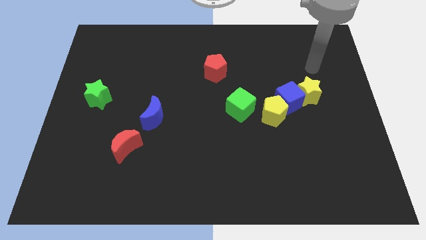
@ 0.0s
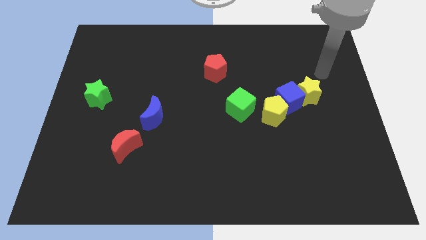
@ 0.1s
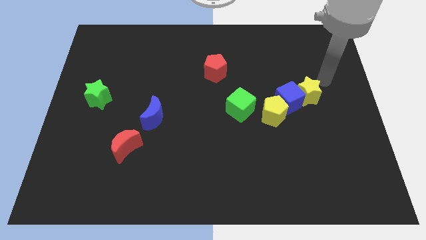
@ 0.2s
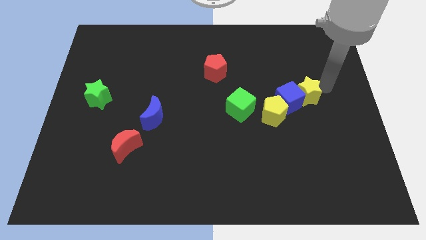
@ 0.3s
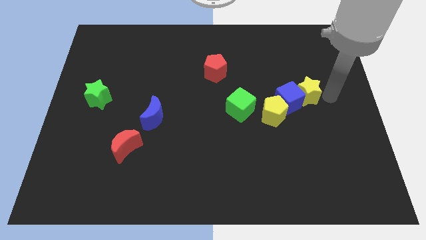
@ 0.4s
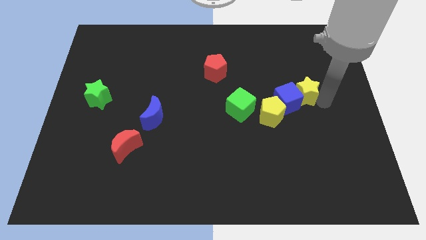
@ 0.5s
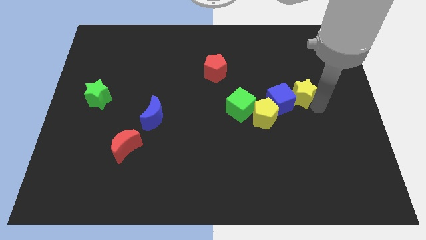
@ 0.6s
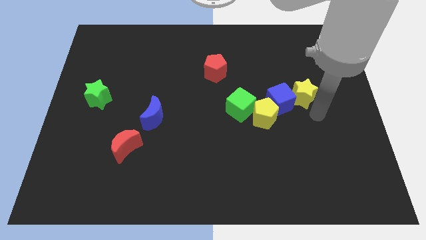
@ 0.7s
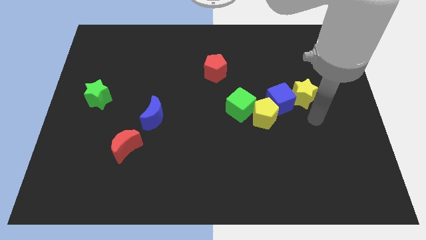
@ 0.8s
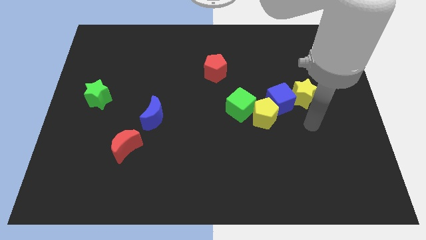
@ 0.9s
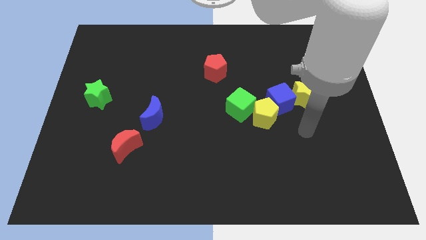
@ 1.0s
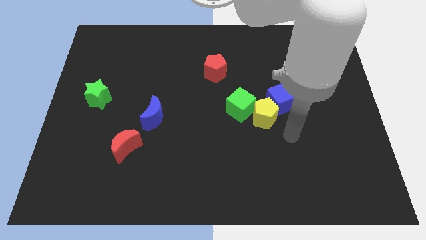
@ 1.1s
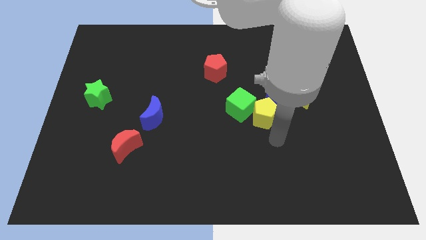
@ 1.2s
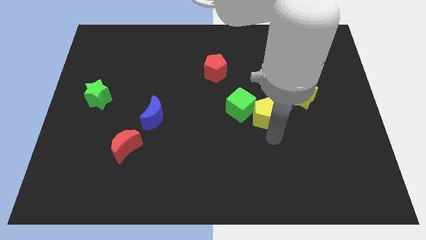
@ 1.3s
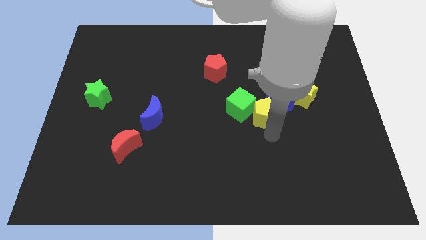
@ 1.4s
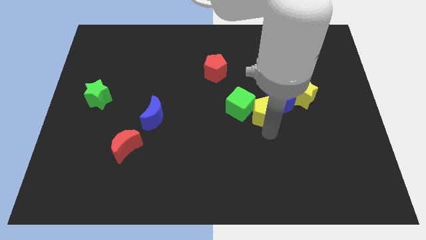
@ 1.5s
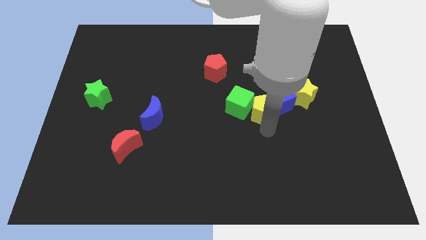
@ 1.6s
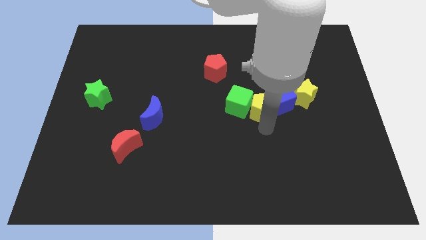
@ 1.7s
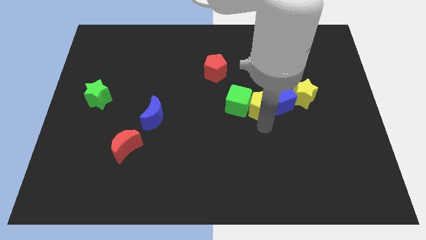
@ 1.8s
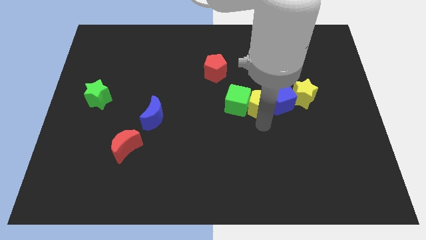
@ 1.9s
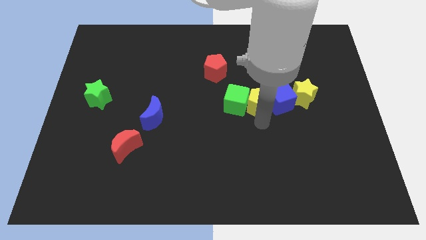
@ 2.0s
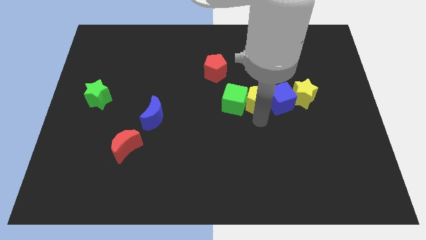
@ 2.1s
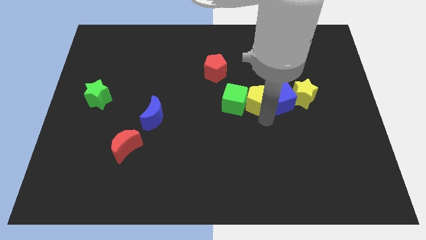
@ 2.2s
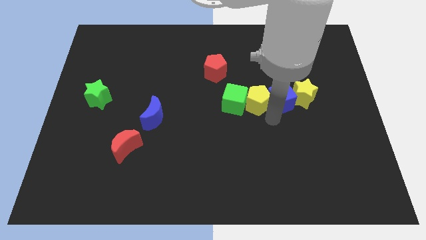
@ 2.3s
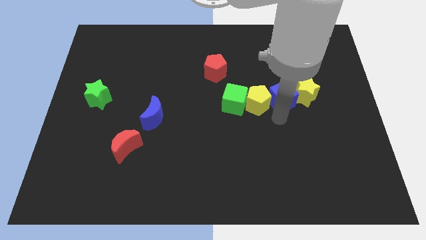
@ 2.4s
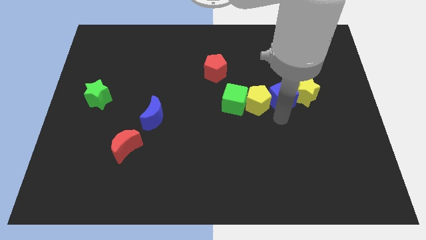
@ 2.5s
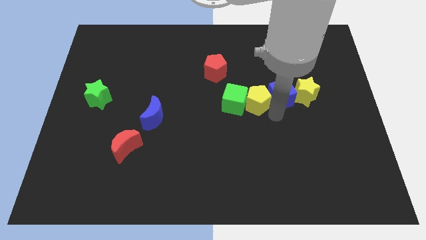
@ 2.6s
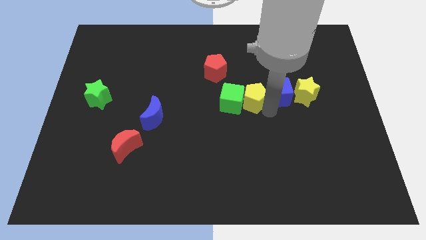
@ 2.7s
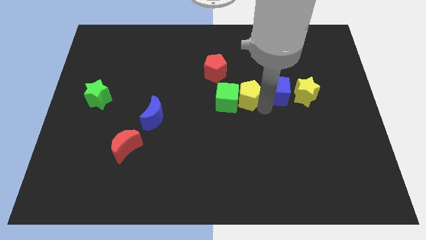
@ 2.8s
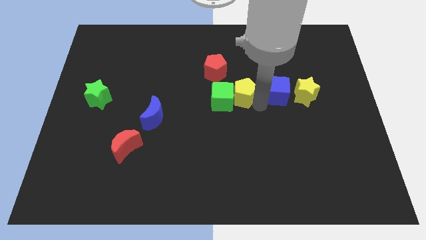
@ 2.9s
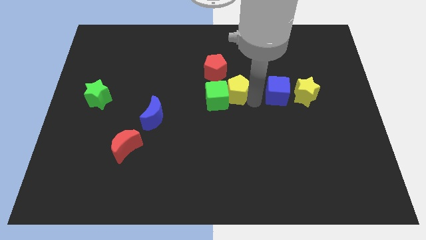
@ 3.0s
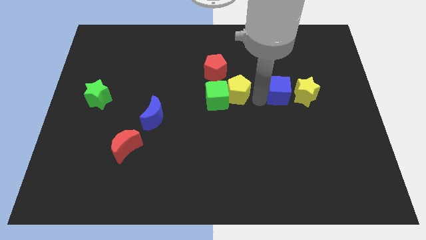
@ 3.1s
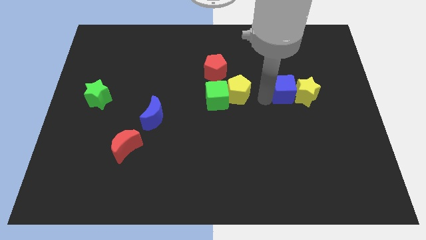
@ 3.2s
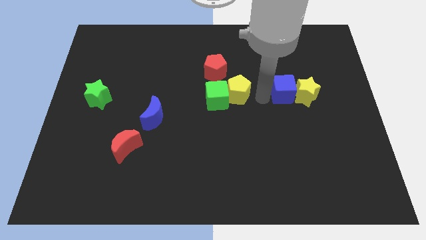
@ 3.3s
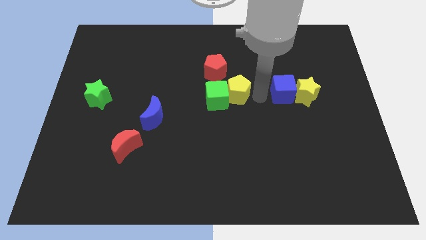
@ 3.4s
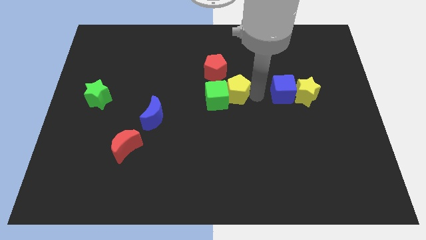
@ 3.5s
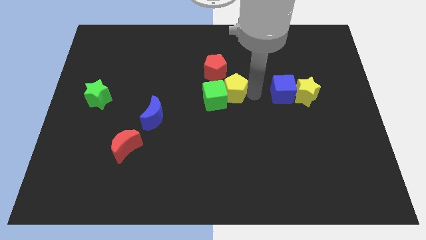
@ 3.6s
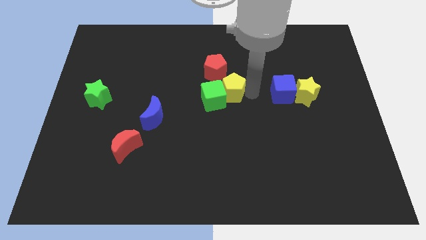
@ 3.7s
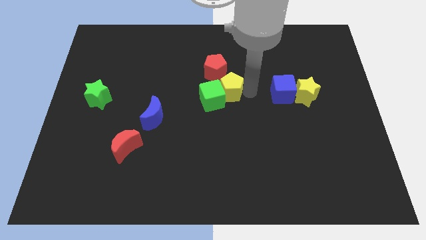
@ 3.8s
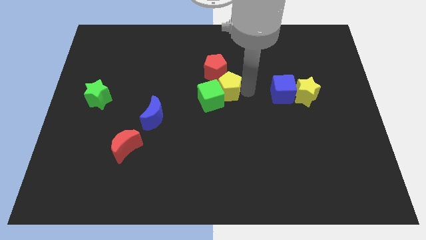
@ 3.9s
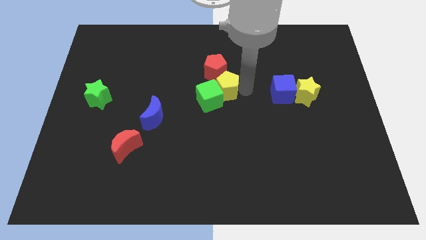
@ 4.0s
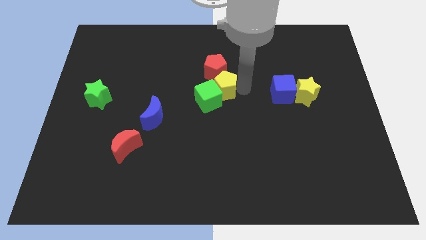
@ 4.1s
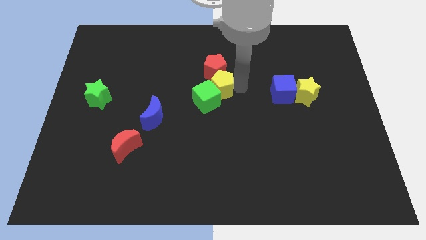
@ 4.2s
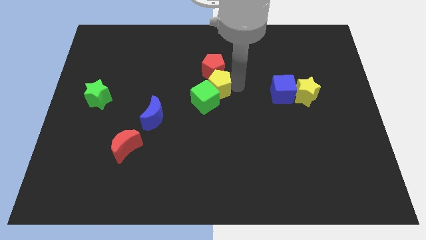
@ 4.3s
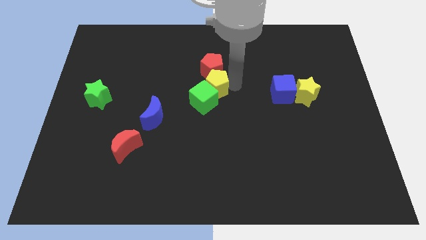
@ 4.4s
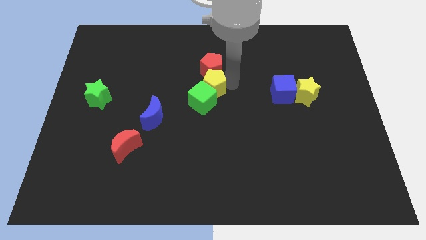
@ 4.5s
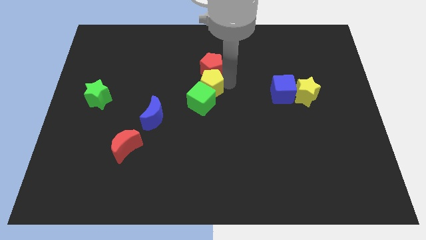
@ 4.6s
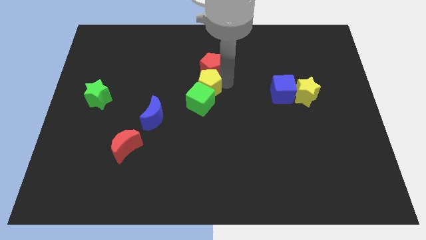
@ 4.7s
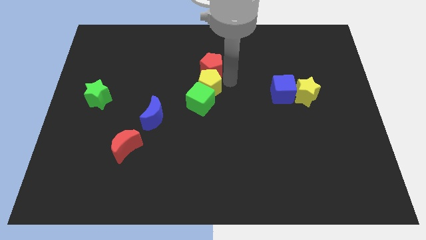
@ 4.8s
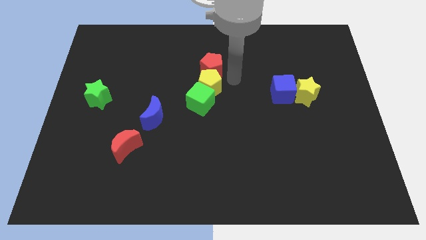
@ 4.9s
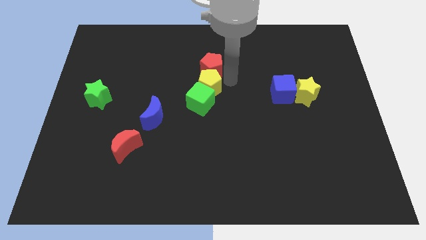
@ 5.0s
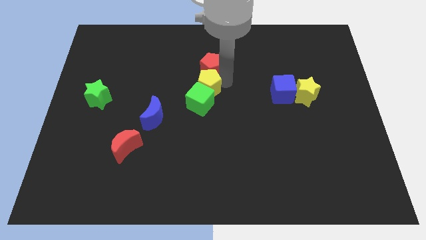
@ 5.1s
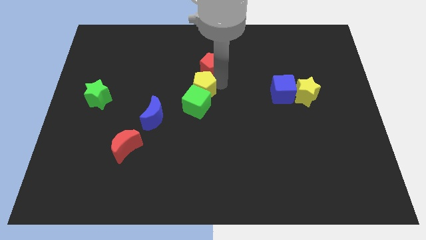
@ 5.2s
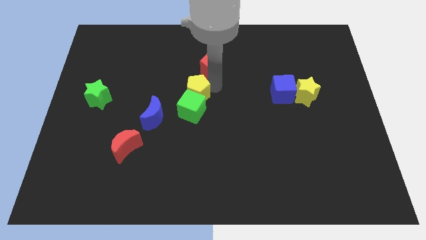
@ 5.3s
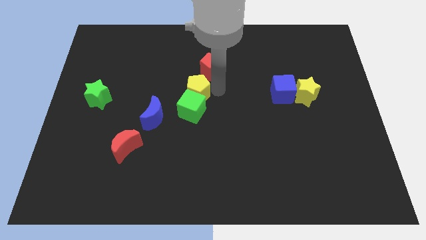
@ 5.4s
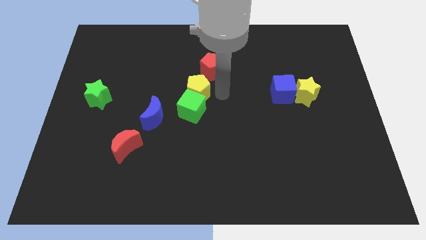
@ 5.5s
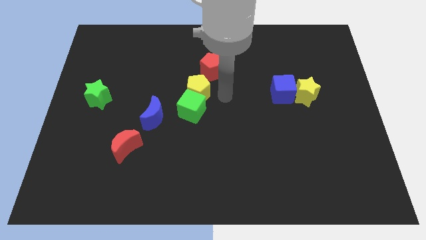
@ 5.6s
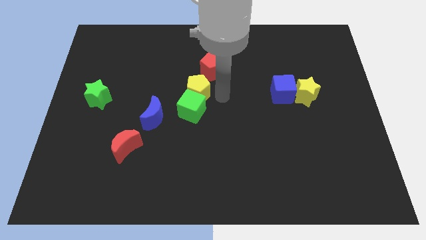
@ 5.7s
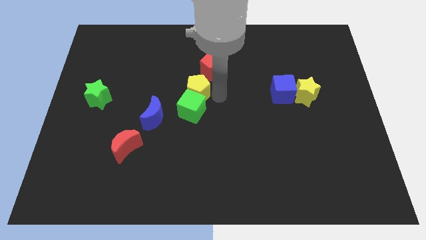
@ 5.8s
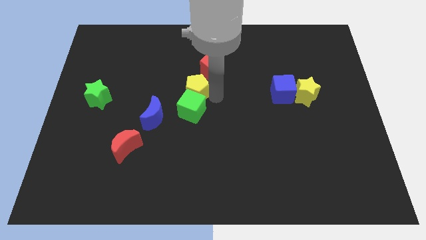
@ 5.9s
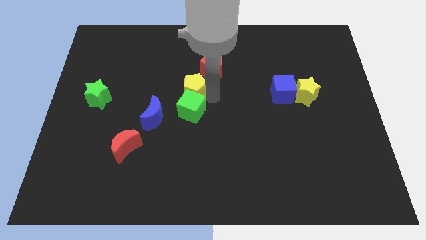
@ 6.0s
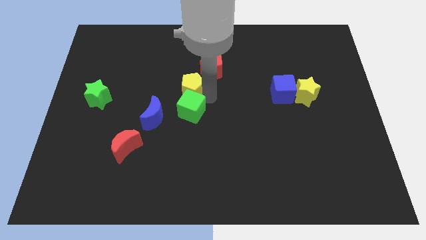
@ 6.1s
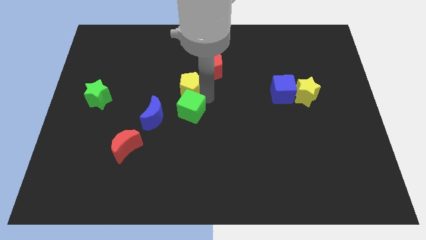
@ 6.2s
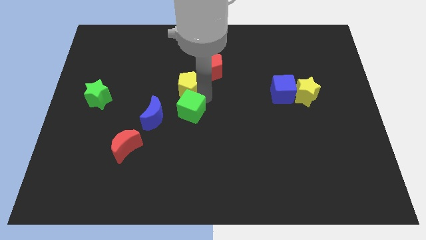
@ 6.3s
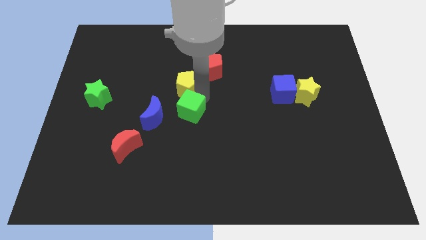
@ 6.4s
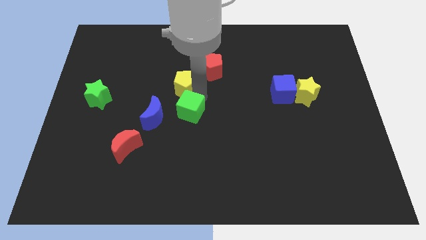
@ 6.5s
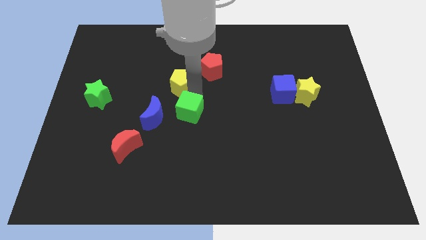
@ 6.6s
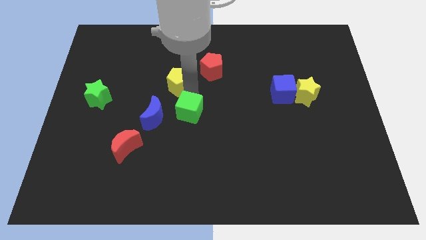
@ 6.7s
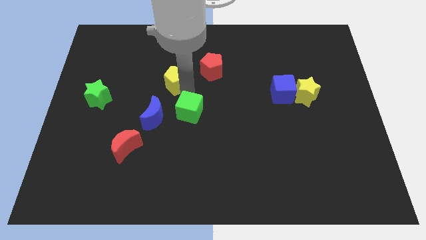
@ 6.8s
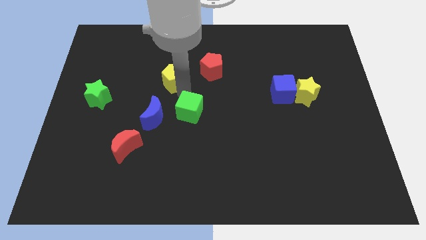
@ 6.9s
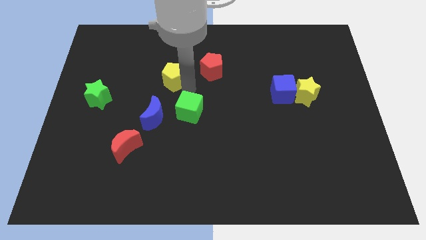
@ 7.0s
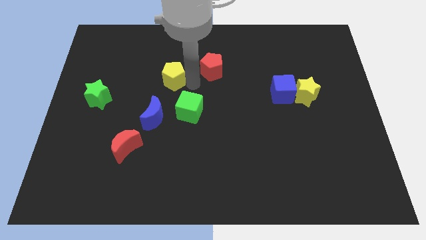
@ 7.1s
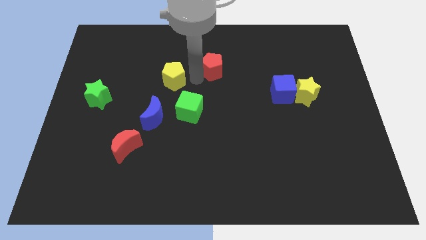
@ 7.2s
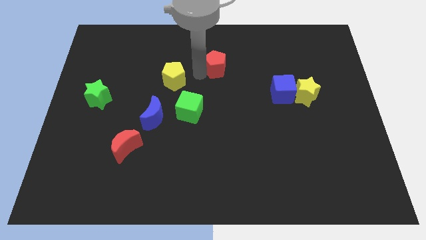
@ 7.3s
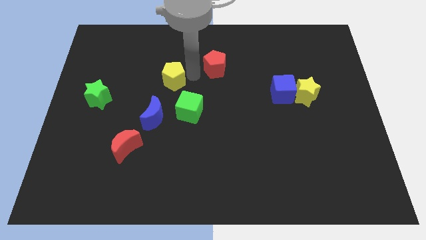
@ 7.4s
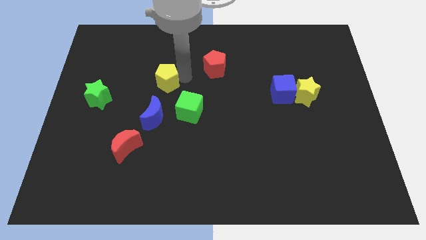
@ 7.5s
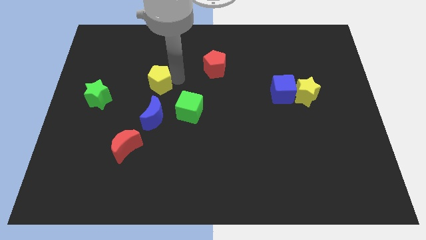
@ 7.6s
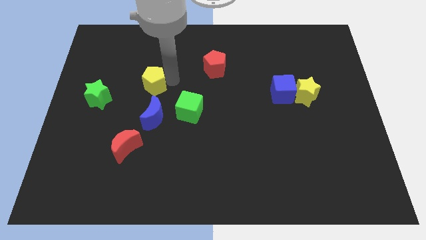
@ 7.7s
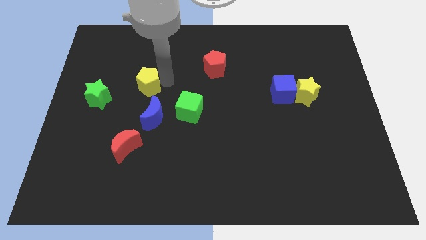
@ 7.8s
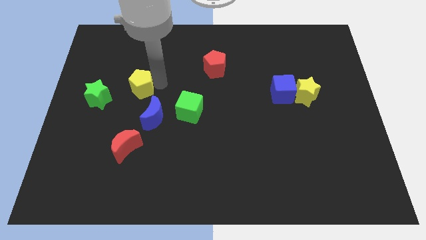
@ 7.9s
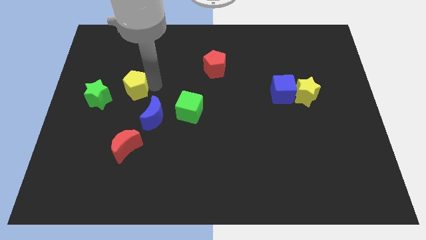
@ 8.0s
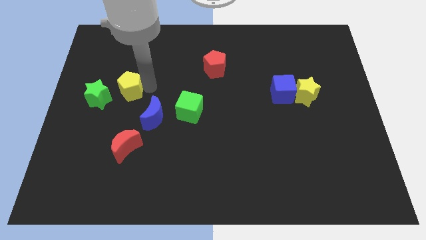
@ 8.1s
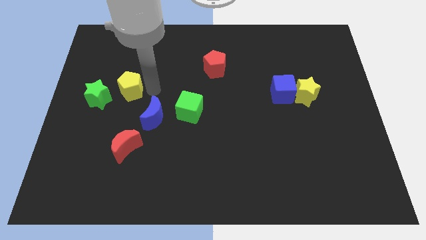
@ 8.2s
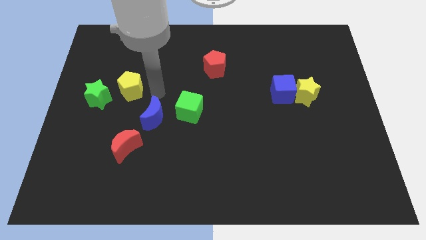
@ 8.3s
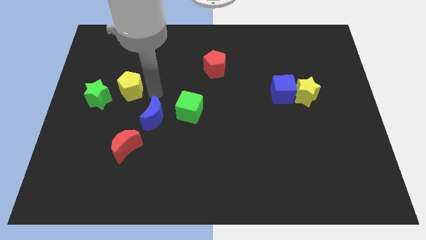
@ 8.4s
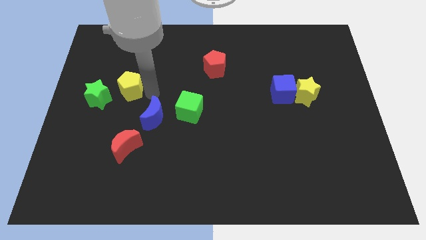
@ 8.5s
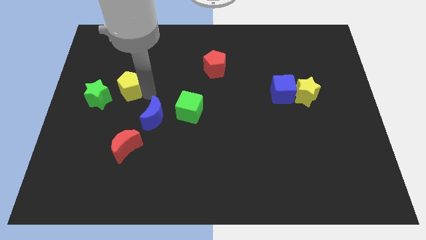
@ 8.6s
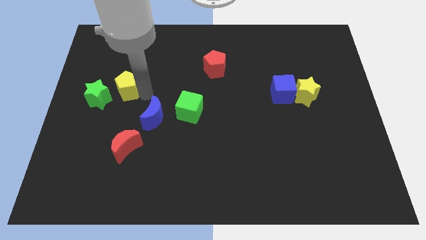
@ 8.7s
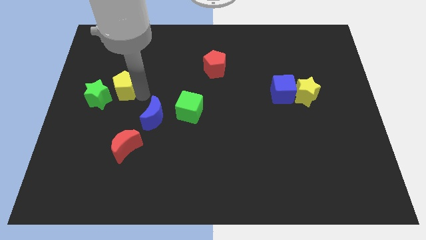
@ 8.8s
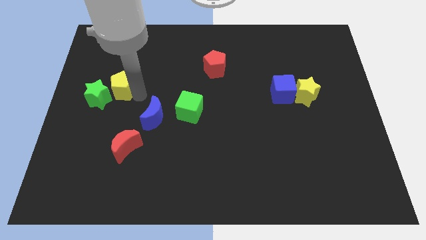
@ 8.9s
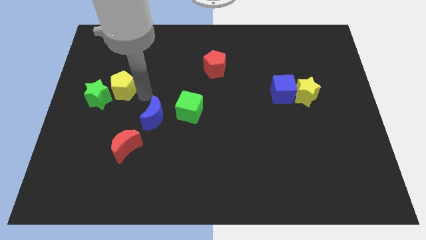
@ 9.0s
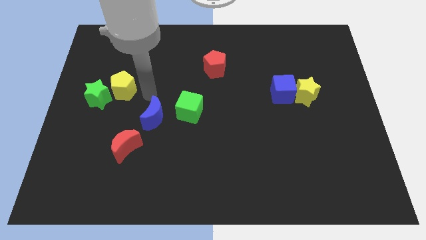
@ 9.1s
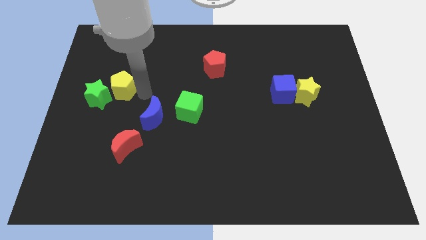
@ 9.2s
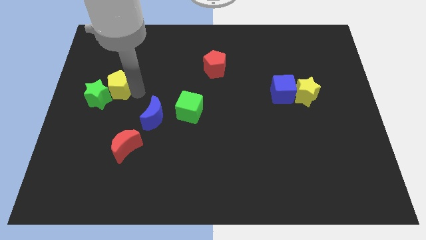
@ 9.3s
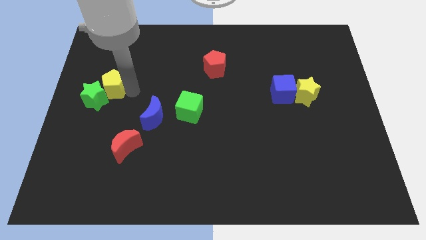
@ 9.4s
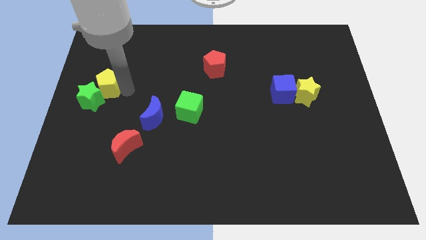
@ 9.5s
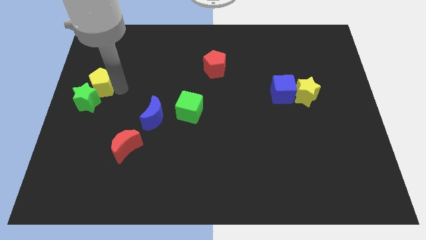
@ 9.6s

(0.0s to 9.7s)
put the yellow pentagon to the center left
